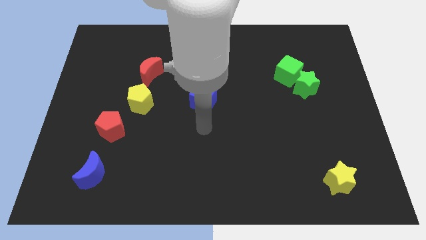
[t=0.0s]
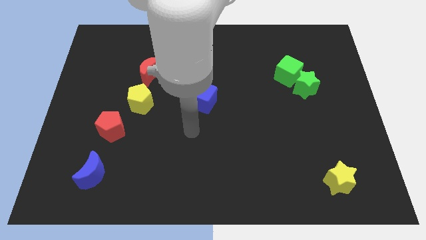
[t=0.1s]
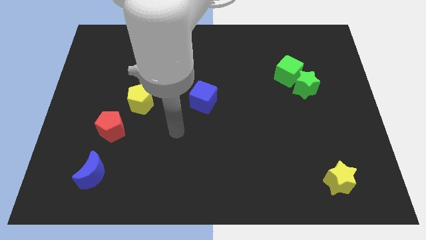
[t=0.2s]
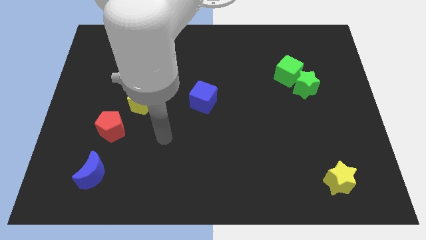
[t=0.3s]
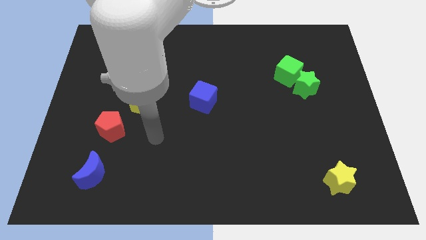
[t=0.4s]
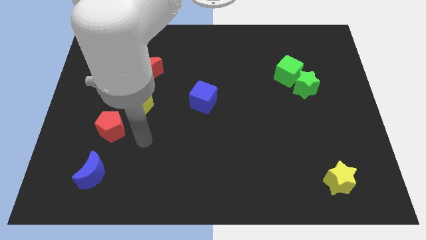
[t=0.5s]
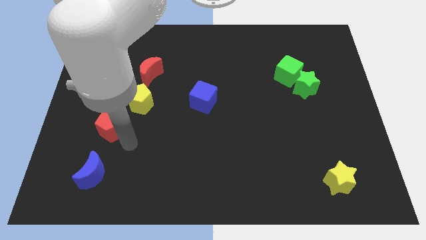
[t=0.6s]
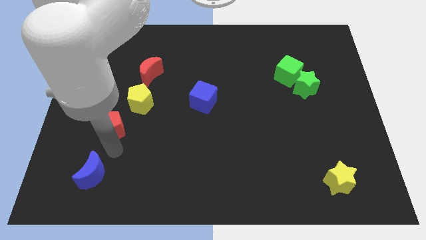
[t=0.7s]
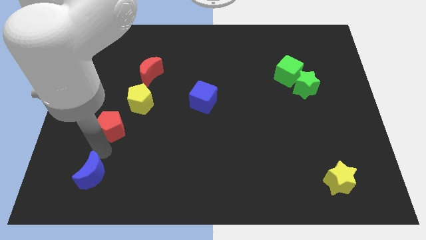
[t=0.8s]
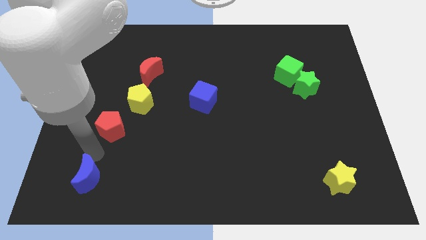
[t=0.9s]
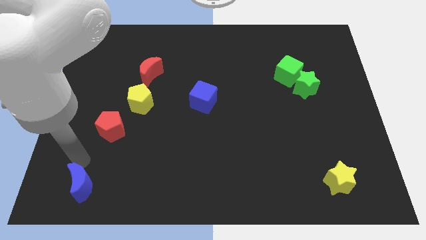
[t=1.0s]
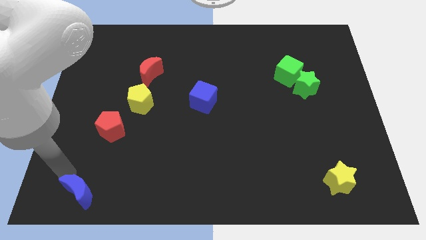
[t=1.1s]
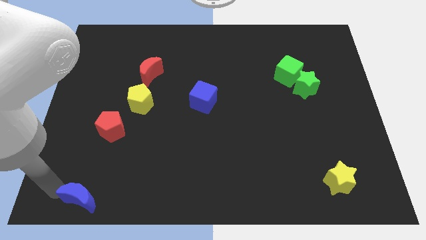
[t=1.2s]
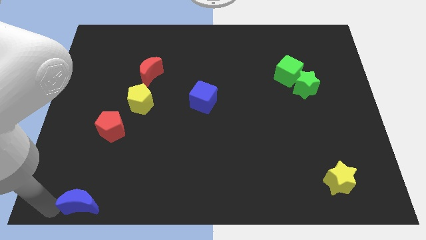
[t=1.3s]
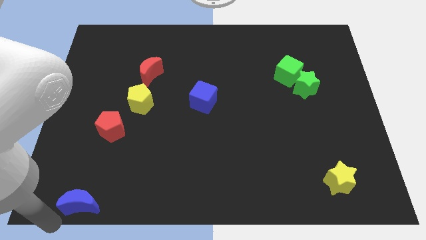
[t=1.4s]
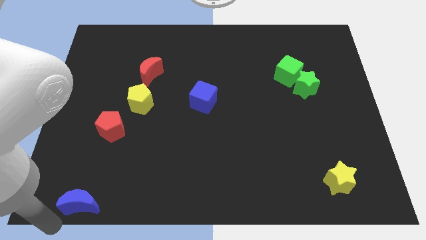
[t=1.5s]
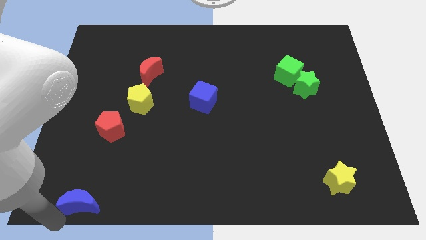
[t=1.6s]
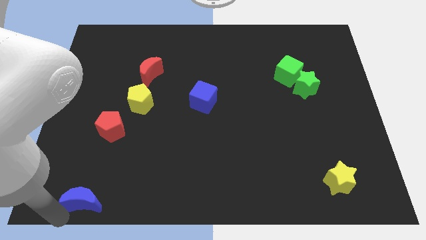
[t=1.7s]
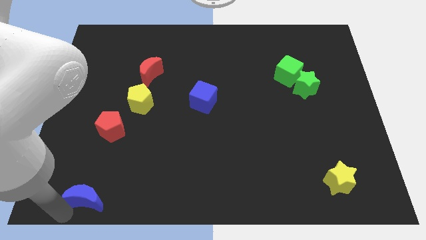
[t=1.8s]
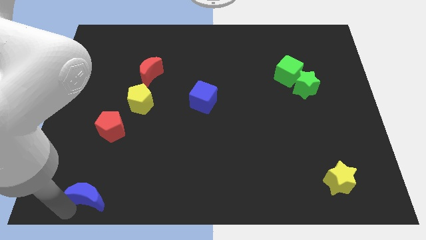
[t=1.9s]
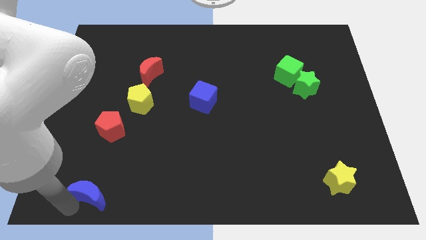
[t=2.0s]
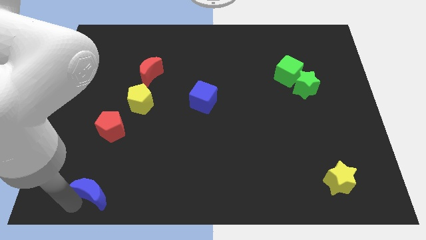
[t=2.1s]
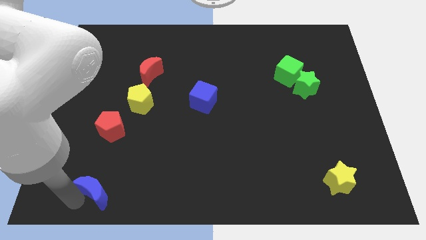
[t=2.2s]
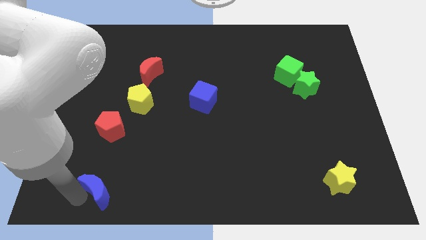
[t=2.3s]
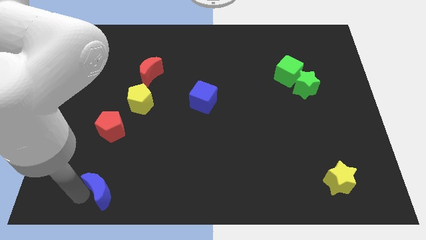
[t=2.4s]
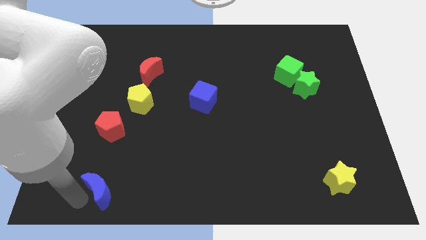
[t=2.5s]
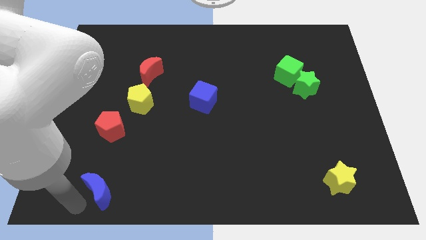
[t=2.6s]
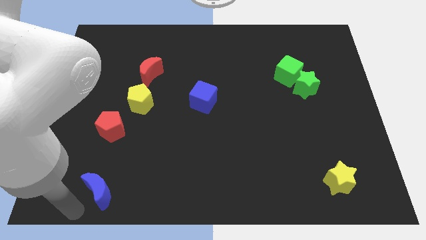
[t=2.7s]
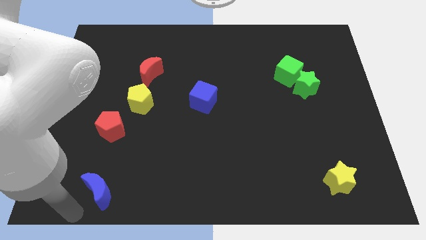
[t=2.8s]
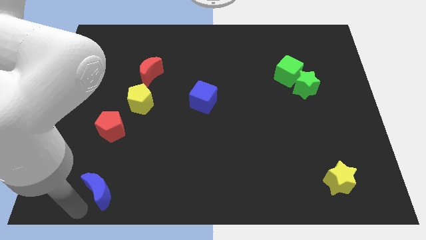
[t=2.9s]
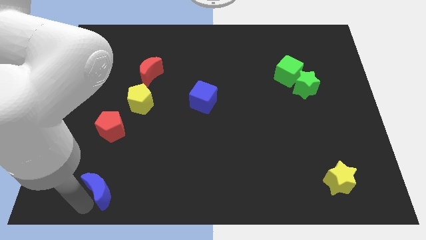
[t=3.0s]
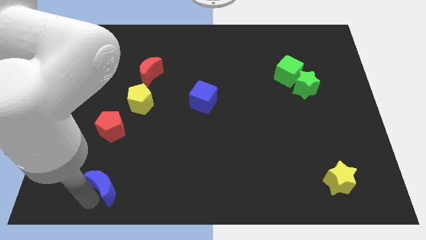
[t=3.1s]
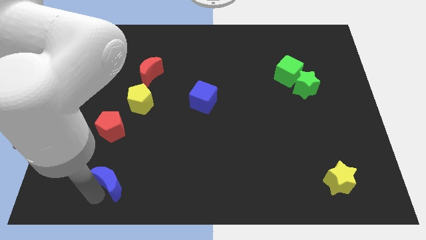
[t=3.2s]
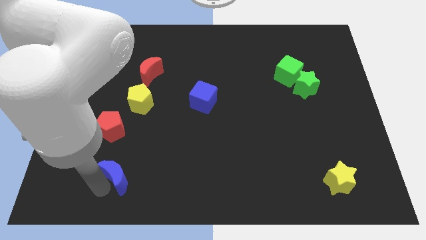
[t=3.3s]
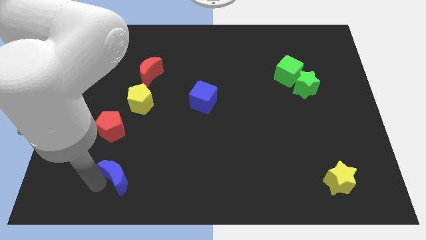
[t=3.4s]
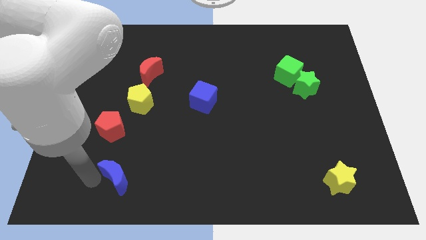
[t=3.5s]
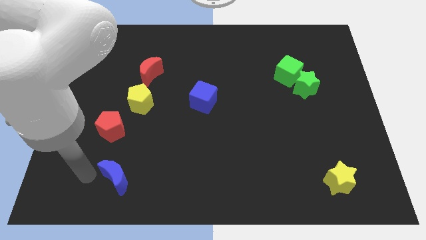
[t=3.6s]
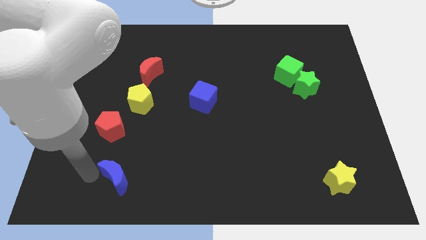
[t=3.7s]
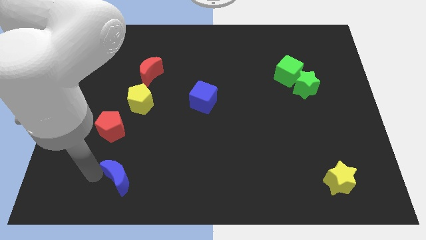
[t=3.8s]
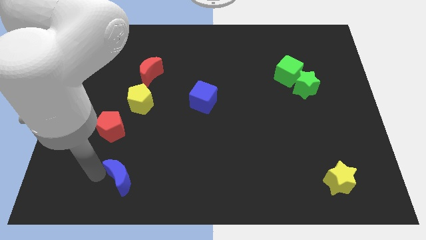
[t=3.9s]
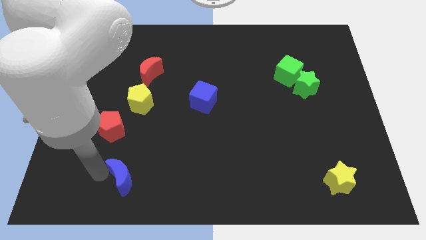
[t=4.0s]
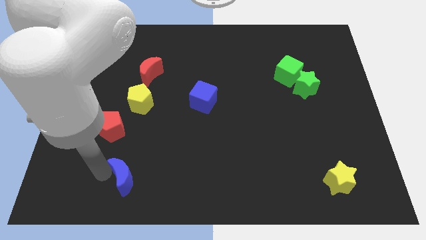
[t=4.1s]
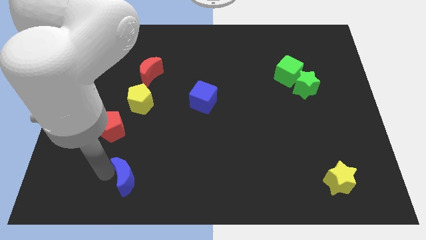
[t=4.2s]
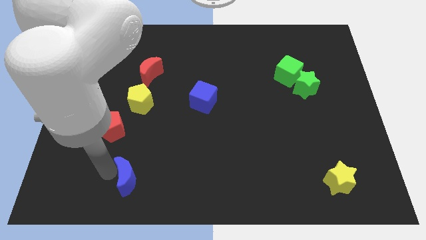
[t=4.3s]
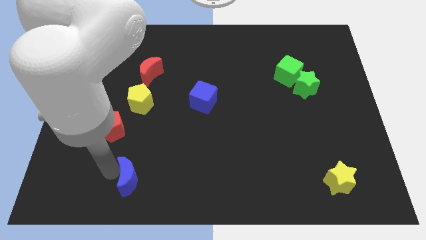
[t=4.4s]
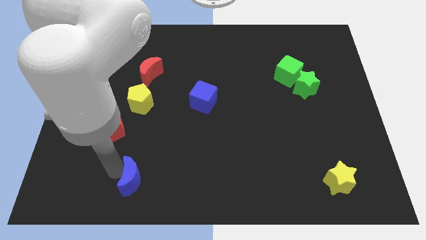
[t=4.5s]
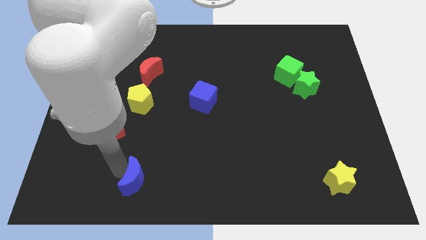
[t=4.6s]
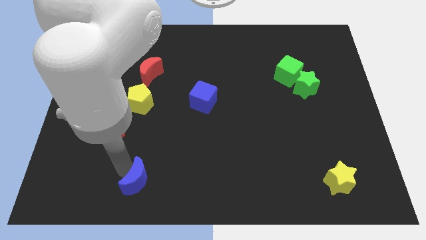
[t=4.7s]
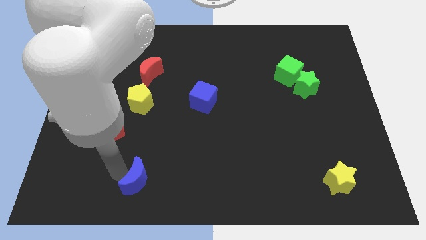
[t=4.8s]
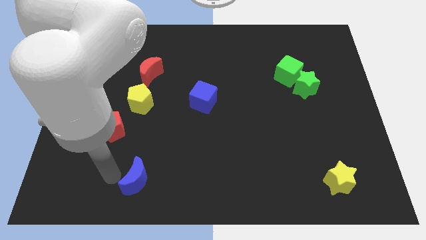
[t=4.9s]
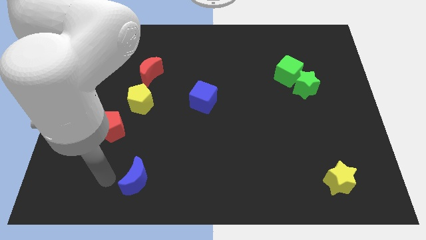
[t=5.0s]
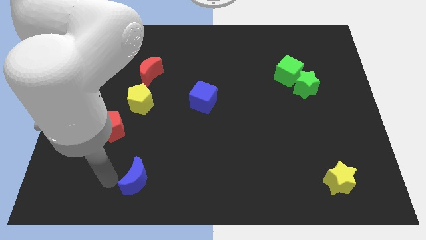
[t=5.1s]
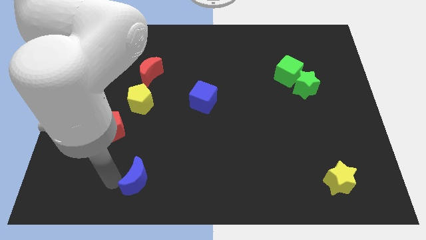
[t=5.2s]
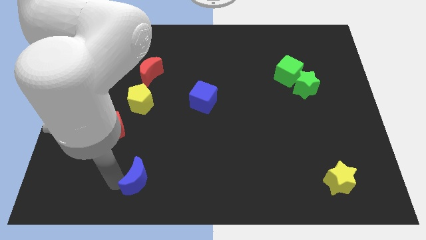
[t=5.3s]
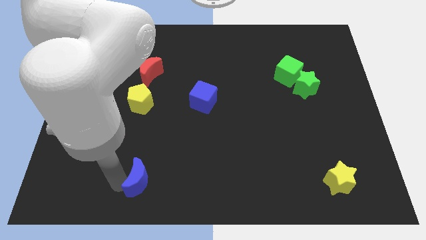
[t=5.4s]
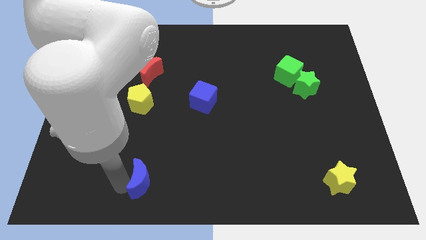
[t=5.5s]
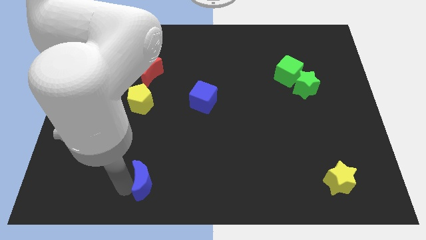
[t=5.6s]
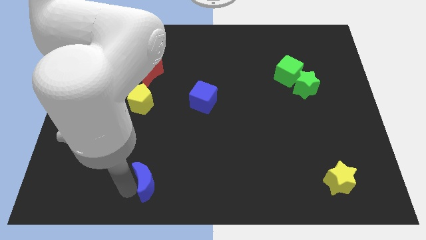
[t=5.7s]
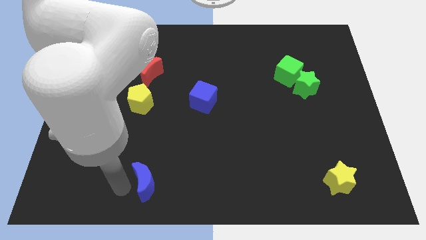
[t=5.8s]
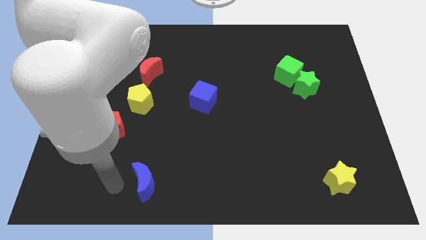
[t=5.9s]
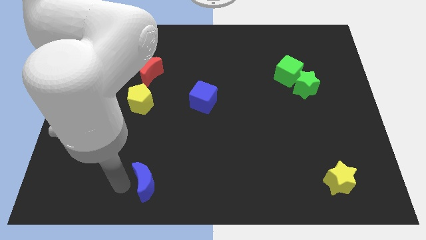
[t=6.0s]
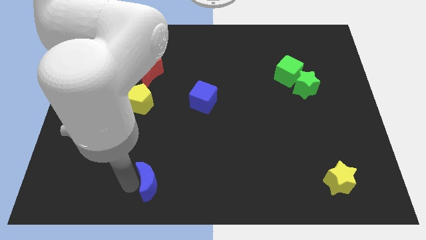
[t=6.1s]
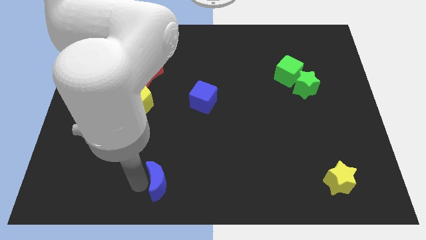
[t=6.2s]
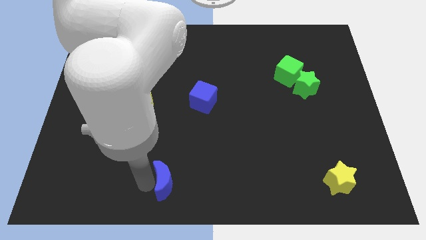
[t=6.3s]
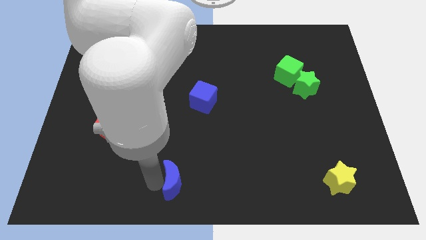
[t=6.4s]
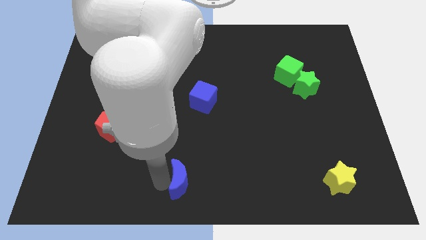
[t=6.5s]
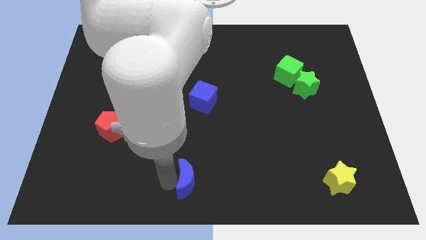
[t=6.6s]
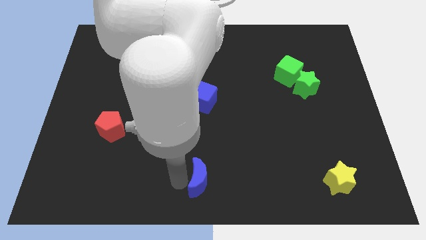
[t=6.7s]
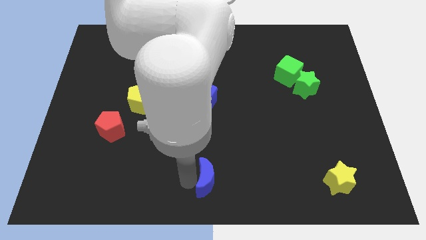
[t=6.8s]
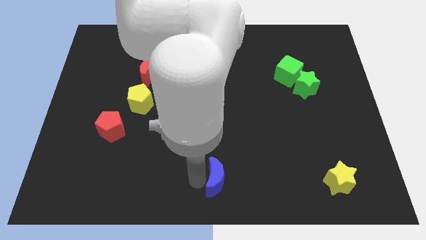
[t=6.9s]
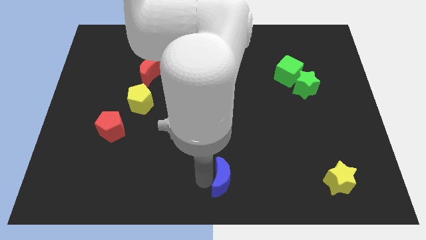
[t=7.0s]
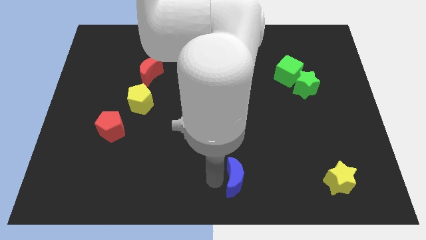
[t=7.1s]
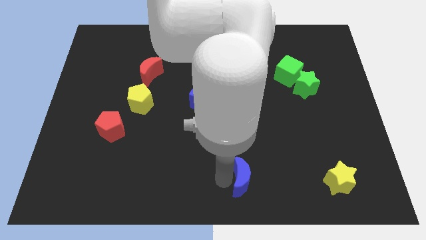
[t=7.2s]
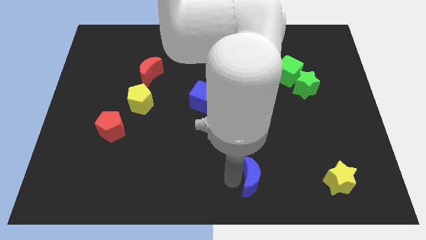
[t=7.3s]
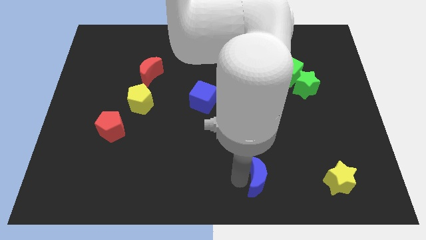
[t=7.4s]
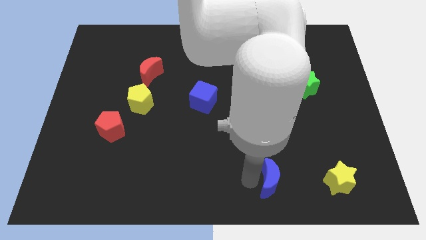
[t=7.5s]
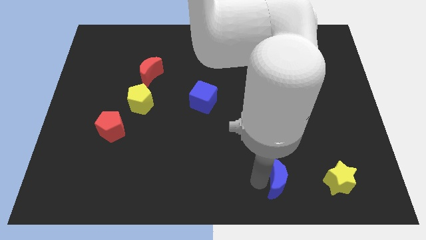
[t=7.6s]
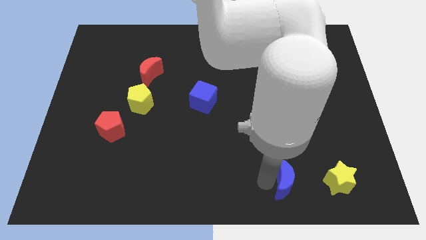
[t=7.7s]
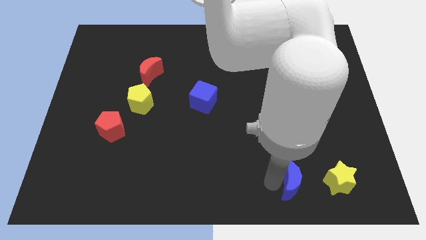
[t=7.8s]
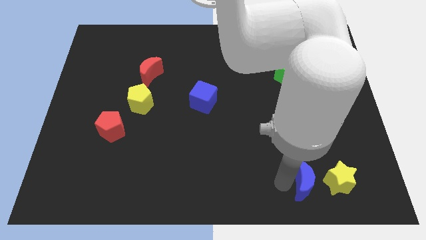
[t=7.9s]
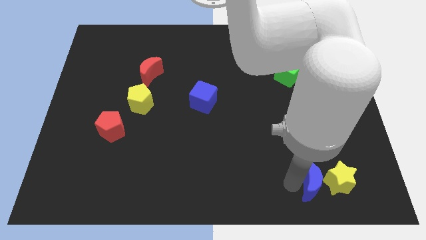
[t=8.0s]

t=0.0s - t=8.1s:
move the blue moon next to the yellow star
